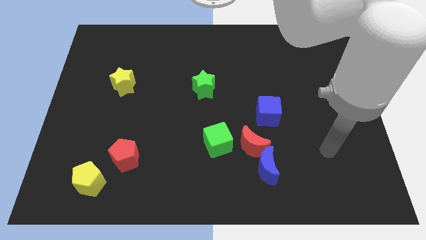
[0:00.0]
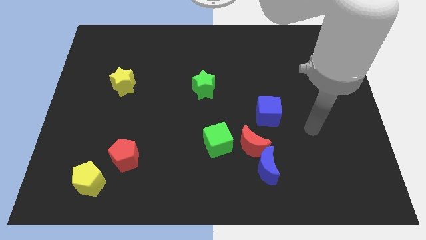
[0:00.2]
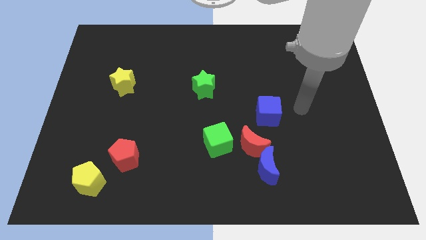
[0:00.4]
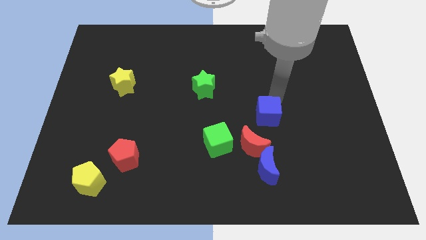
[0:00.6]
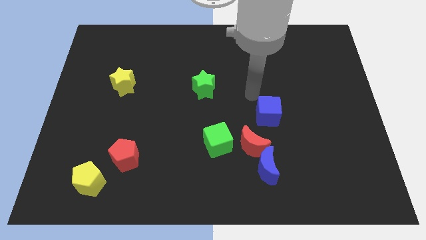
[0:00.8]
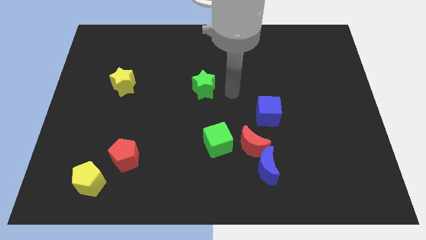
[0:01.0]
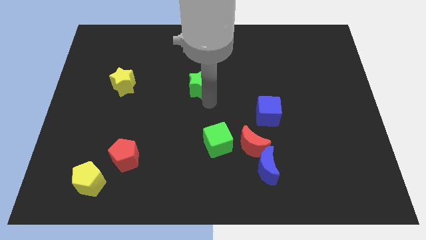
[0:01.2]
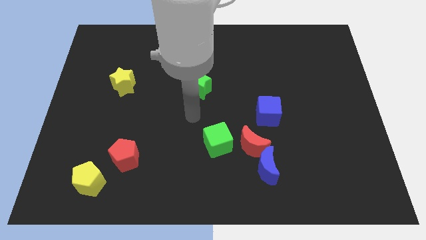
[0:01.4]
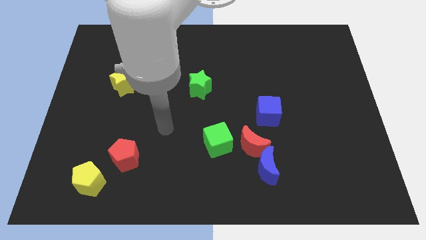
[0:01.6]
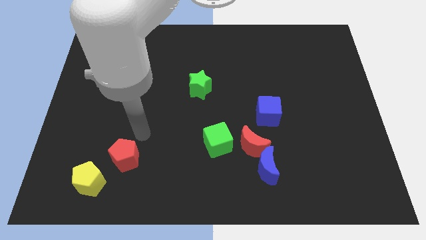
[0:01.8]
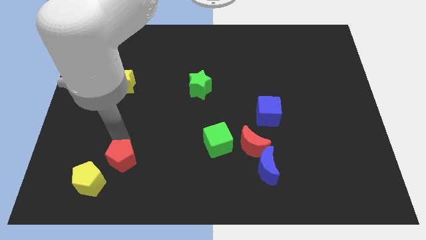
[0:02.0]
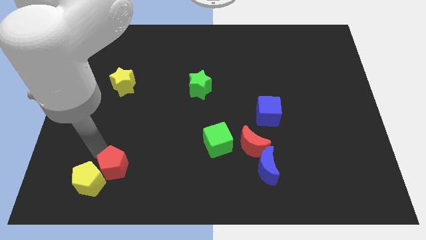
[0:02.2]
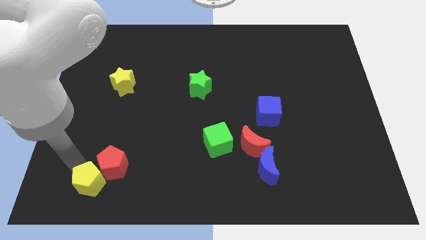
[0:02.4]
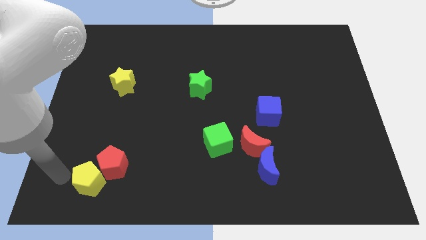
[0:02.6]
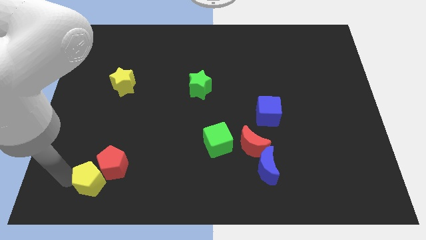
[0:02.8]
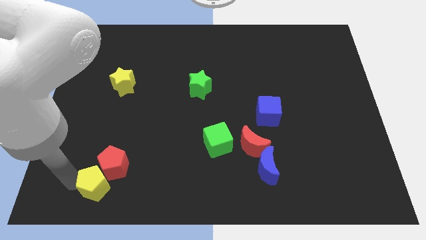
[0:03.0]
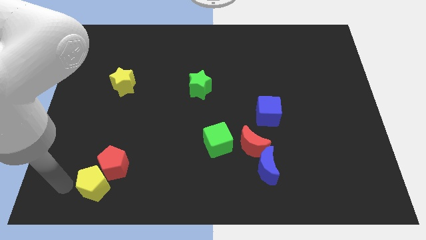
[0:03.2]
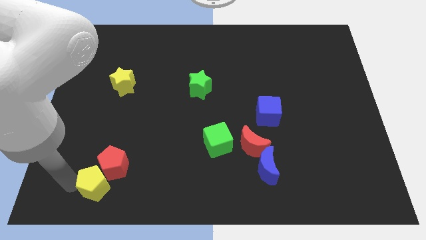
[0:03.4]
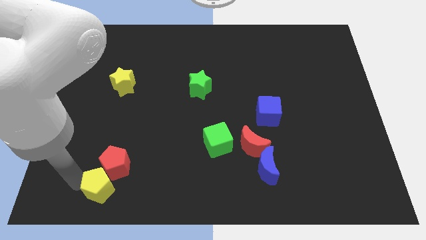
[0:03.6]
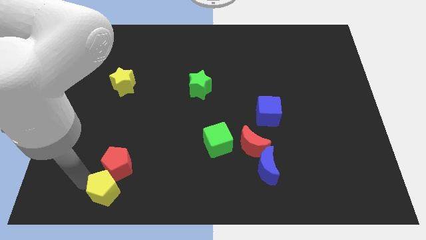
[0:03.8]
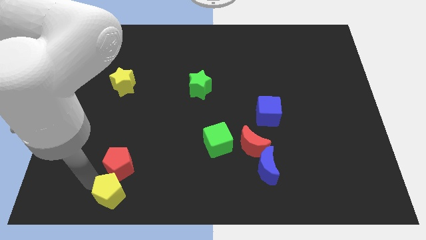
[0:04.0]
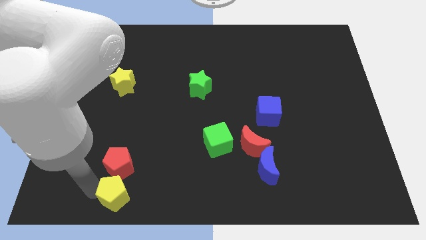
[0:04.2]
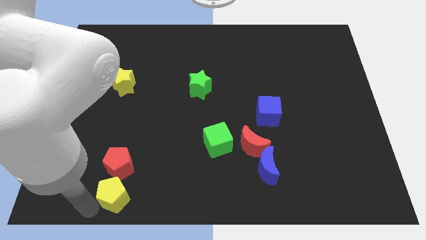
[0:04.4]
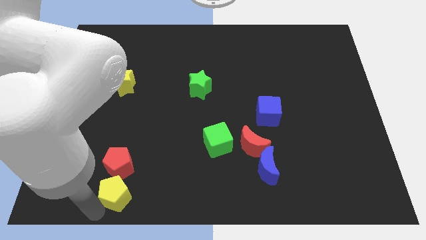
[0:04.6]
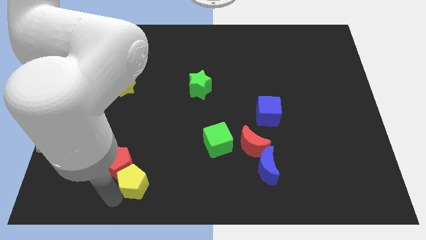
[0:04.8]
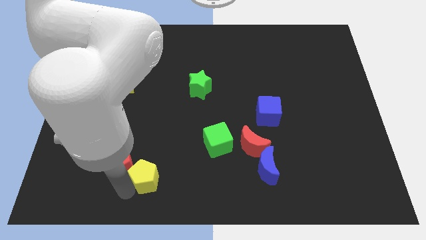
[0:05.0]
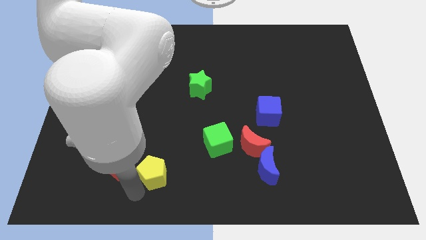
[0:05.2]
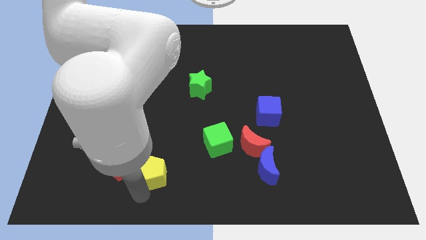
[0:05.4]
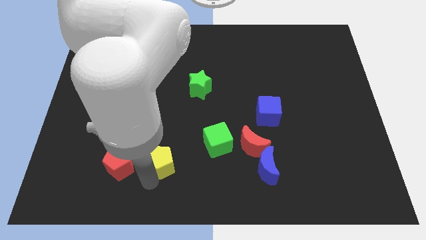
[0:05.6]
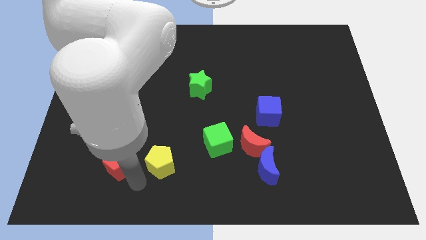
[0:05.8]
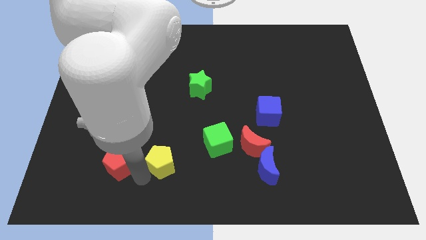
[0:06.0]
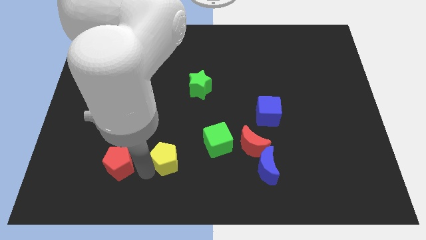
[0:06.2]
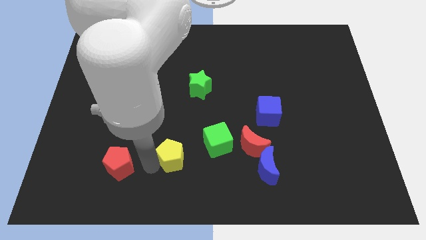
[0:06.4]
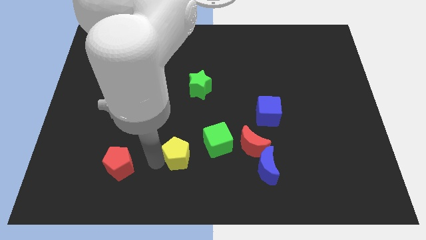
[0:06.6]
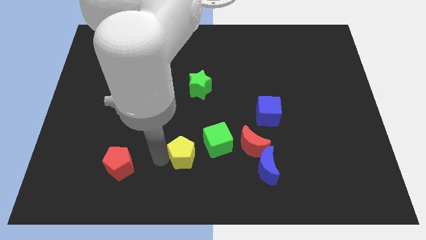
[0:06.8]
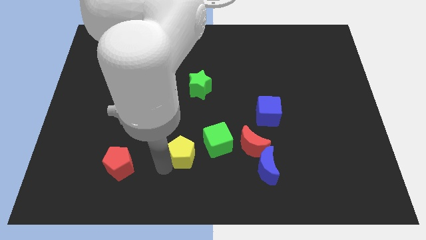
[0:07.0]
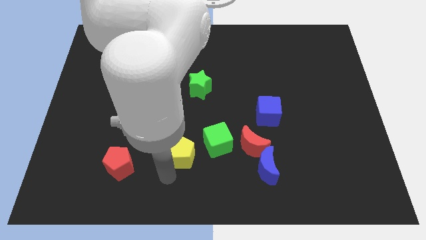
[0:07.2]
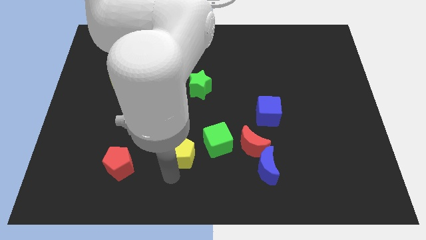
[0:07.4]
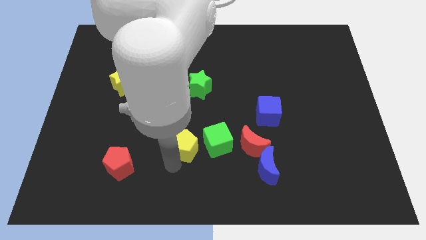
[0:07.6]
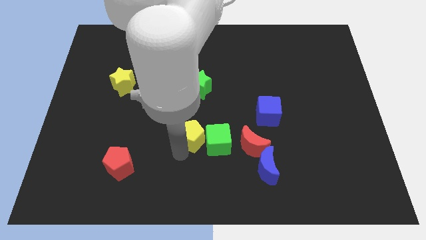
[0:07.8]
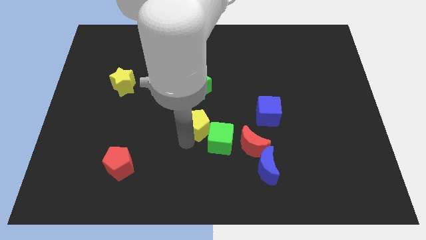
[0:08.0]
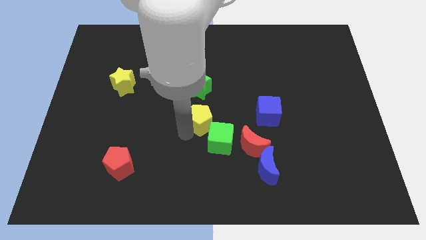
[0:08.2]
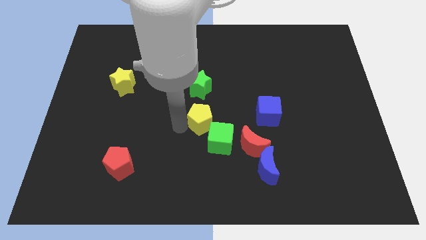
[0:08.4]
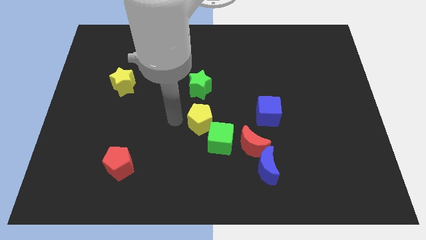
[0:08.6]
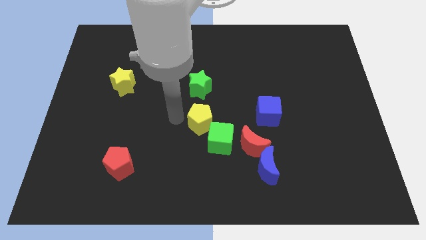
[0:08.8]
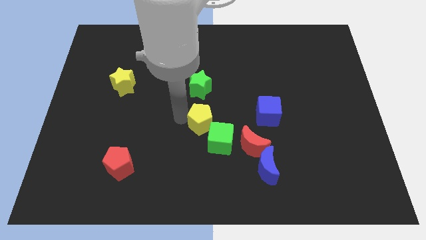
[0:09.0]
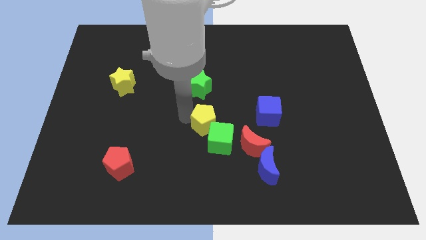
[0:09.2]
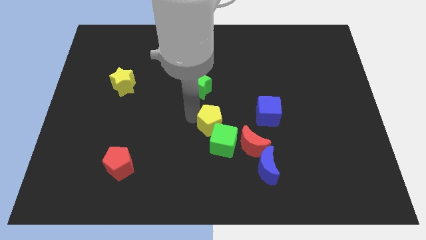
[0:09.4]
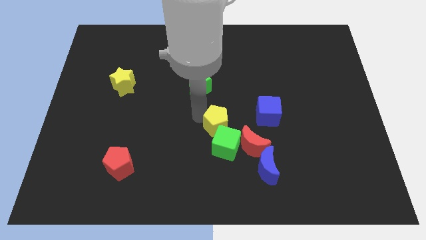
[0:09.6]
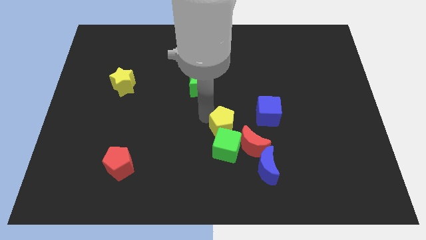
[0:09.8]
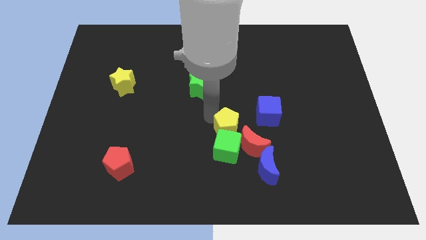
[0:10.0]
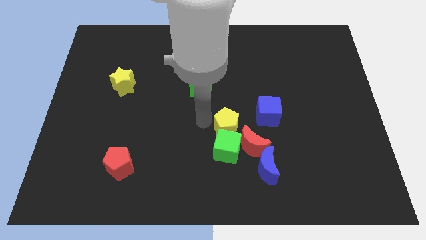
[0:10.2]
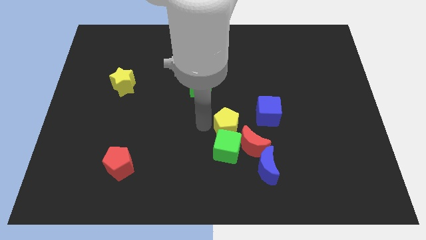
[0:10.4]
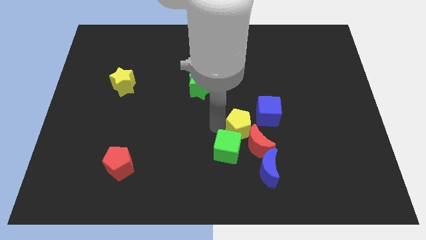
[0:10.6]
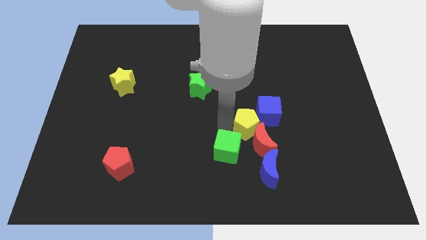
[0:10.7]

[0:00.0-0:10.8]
slide the yellow pentagon to the top side of the blue moon
